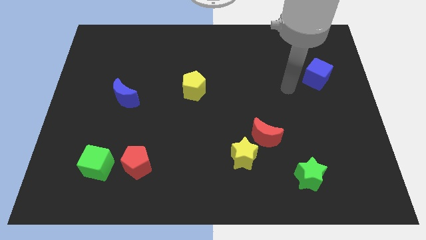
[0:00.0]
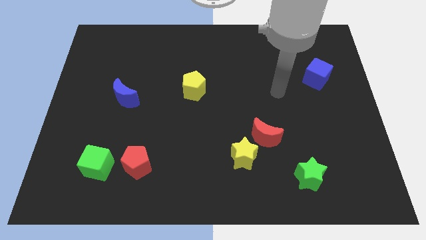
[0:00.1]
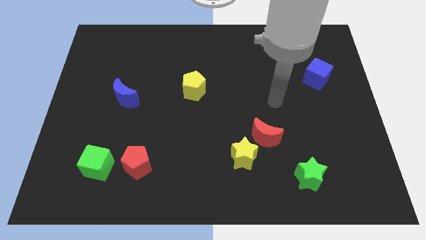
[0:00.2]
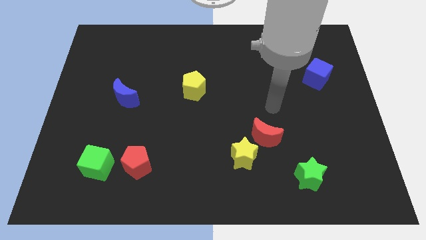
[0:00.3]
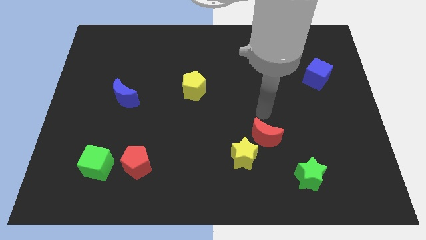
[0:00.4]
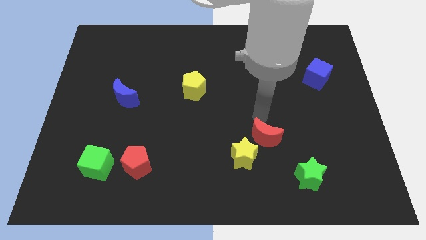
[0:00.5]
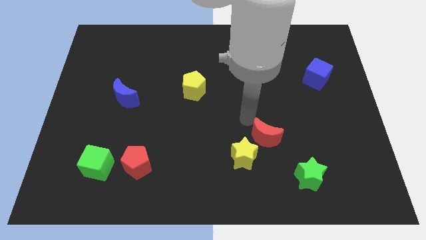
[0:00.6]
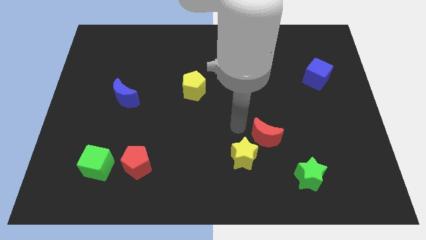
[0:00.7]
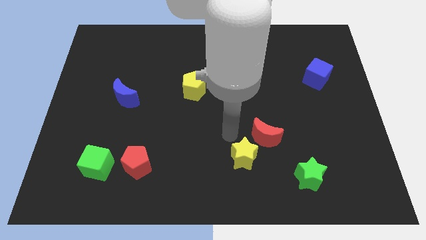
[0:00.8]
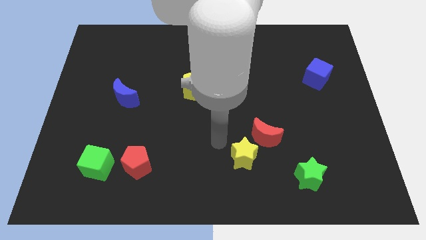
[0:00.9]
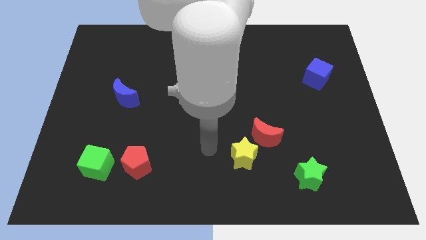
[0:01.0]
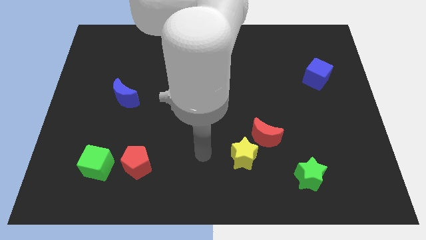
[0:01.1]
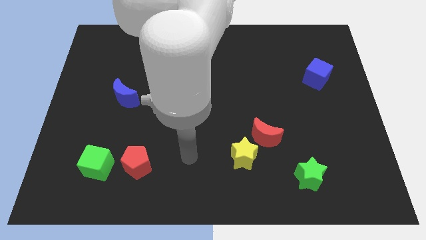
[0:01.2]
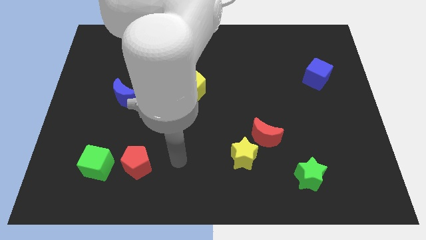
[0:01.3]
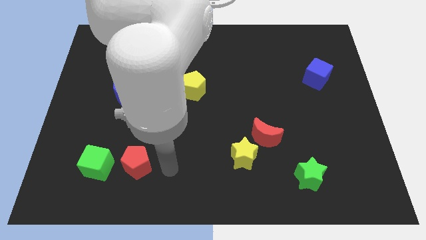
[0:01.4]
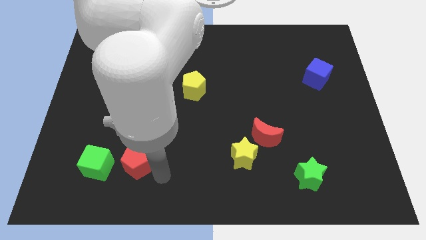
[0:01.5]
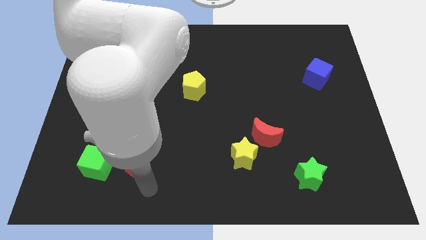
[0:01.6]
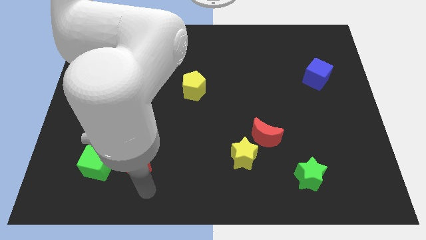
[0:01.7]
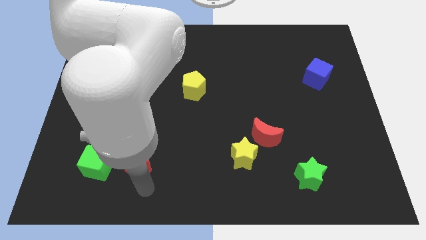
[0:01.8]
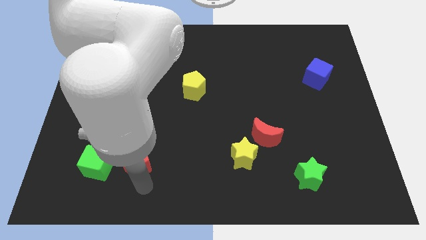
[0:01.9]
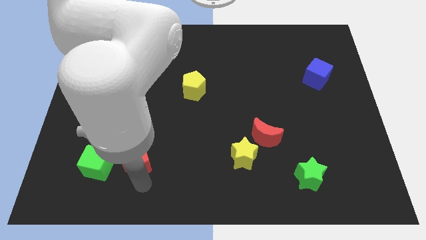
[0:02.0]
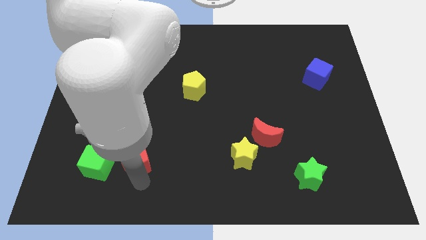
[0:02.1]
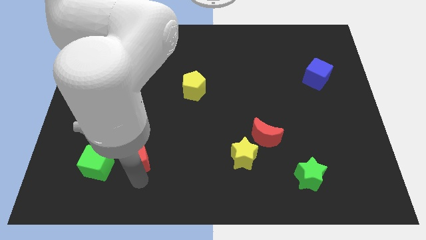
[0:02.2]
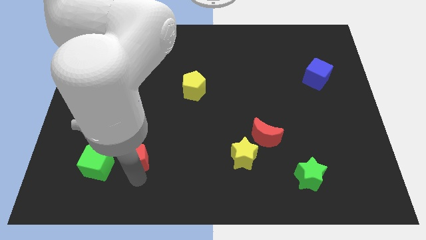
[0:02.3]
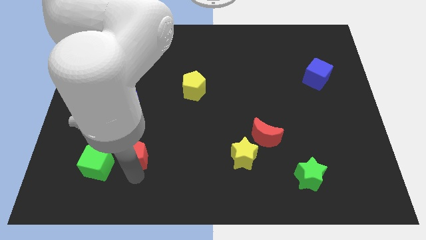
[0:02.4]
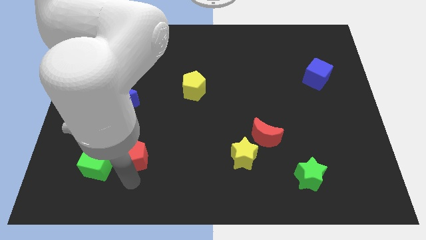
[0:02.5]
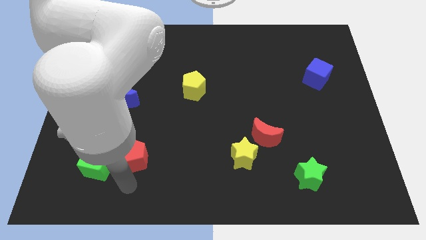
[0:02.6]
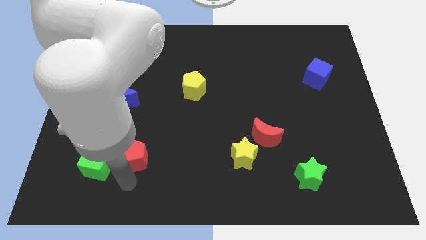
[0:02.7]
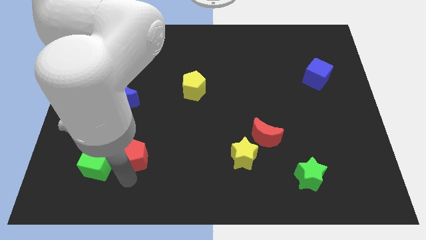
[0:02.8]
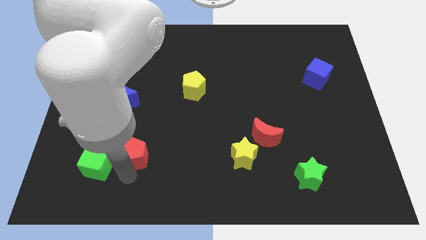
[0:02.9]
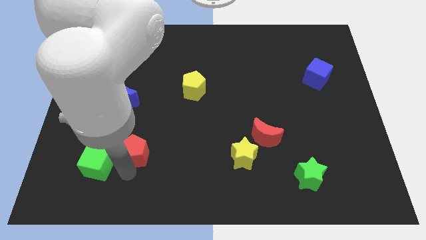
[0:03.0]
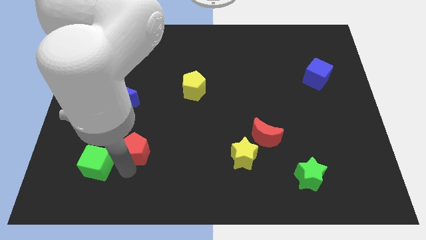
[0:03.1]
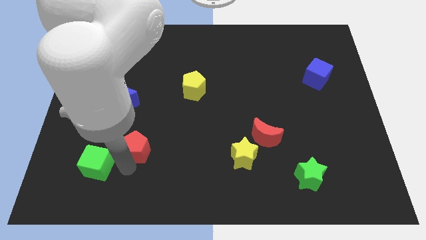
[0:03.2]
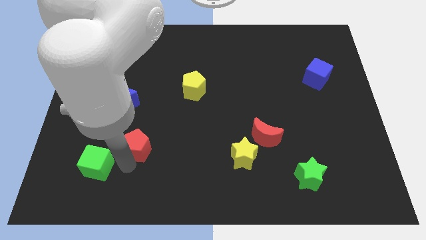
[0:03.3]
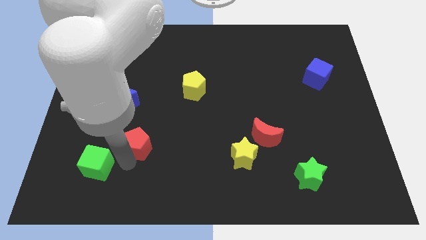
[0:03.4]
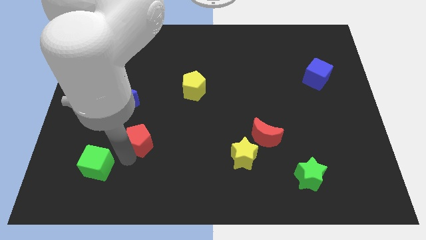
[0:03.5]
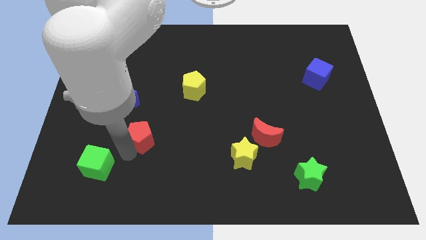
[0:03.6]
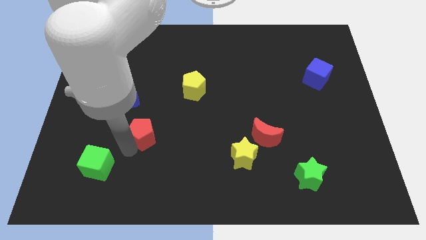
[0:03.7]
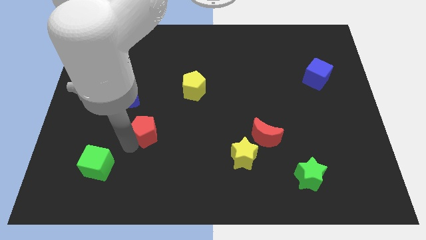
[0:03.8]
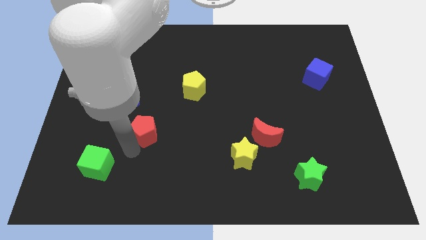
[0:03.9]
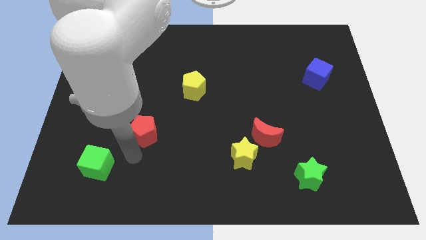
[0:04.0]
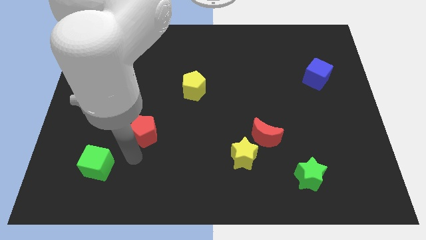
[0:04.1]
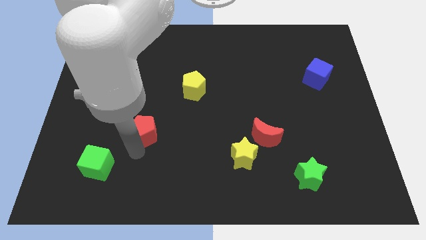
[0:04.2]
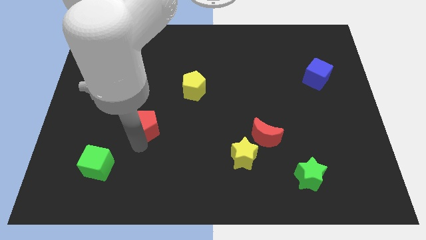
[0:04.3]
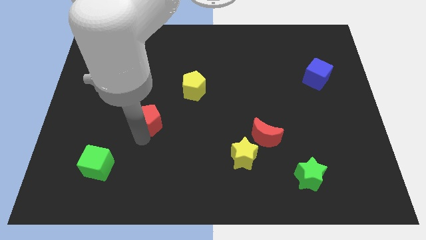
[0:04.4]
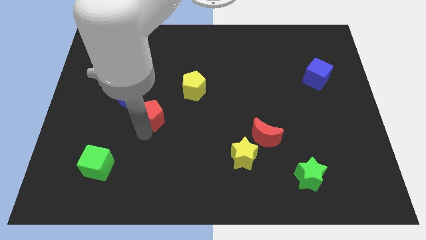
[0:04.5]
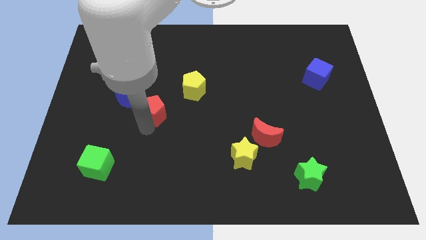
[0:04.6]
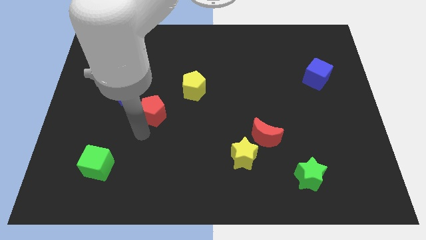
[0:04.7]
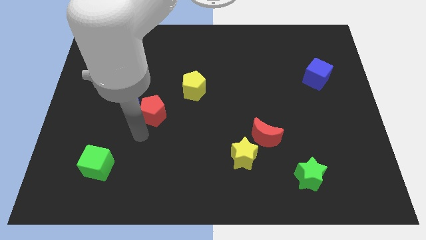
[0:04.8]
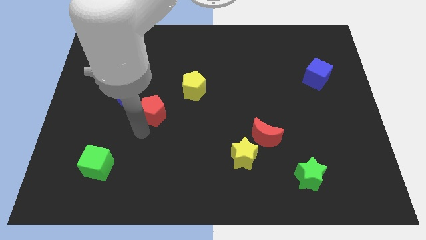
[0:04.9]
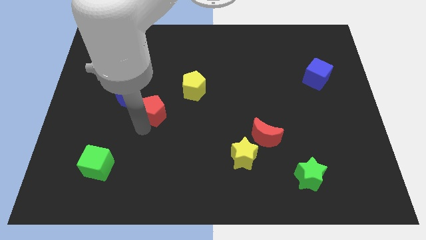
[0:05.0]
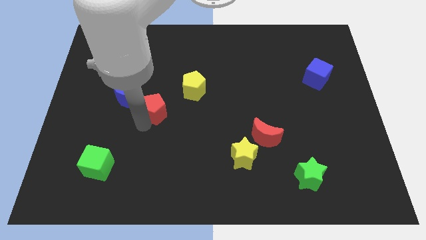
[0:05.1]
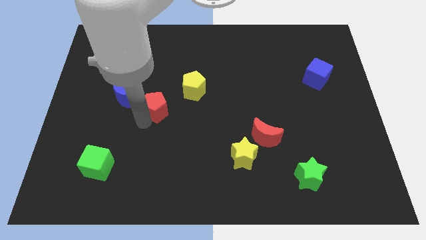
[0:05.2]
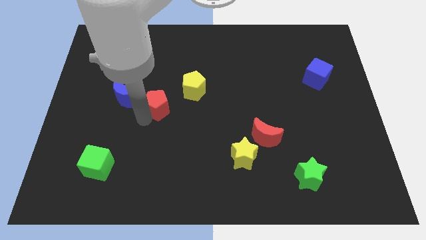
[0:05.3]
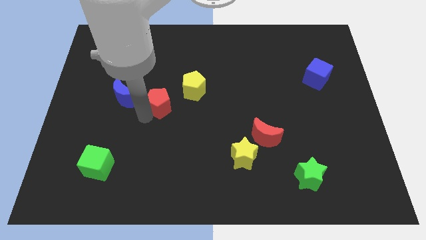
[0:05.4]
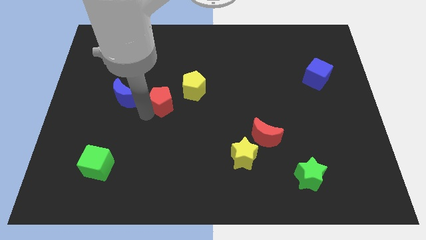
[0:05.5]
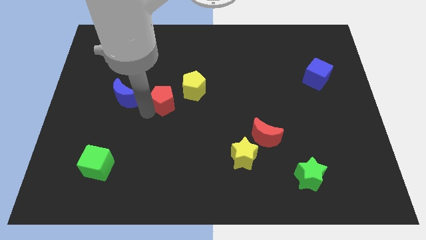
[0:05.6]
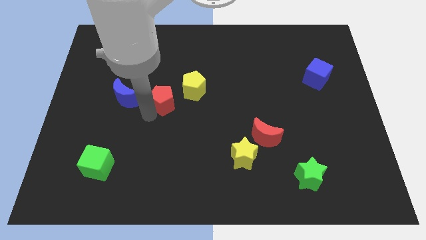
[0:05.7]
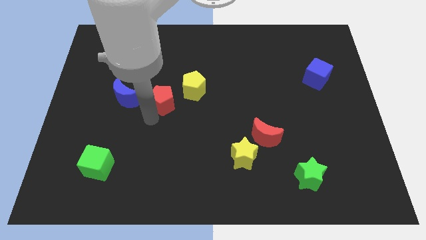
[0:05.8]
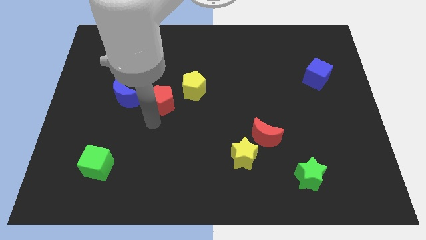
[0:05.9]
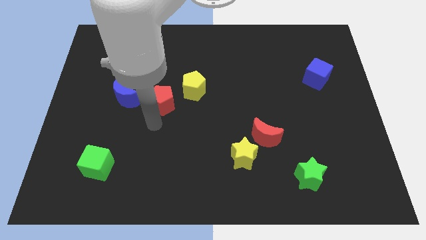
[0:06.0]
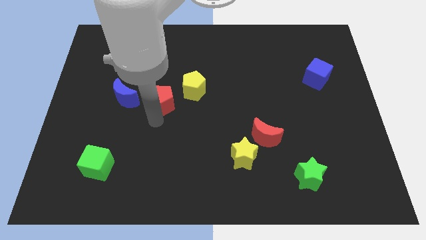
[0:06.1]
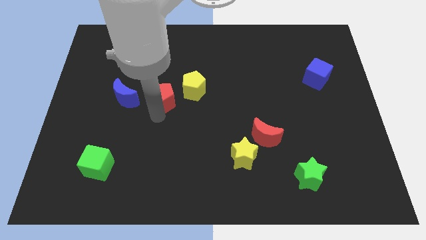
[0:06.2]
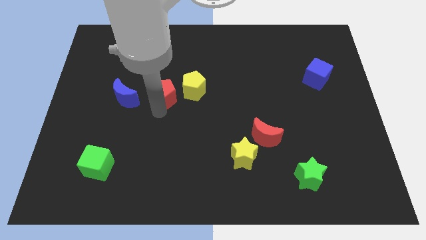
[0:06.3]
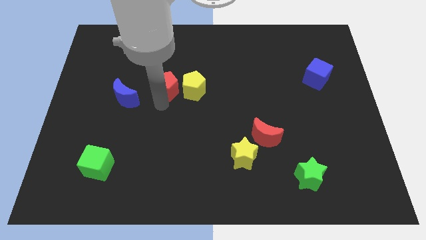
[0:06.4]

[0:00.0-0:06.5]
put the red pentagon to the top left side of the yellow pentagon
